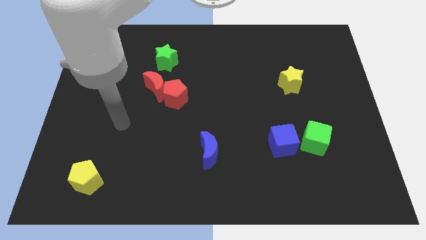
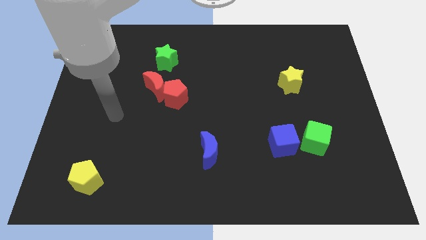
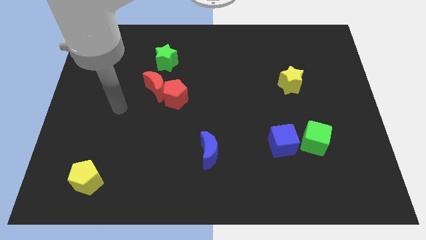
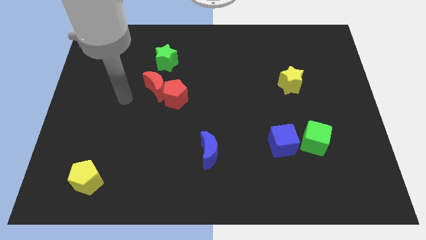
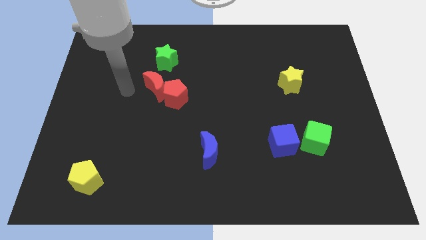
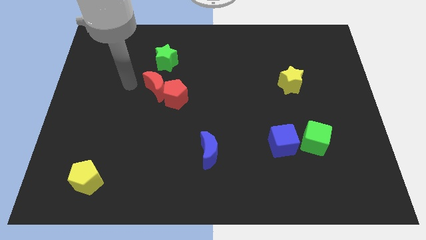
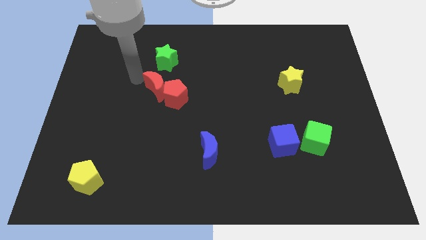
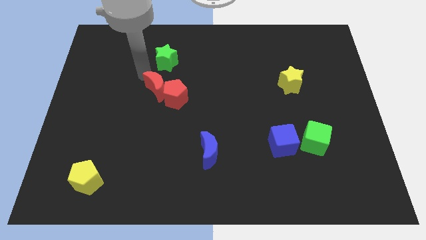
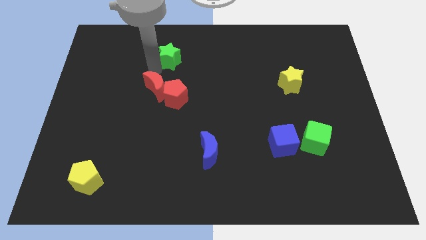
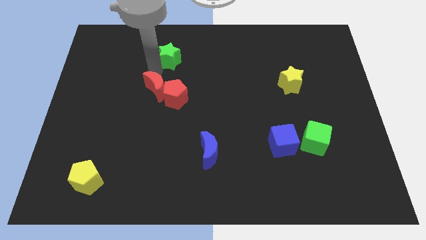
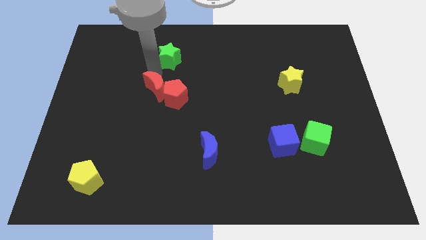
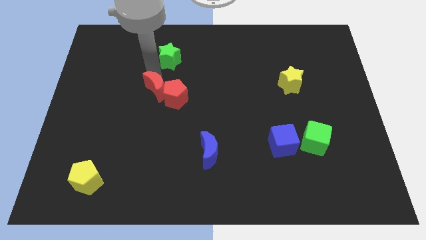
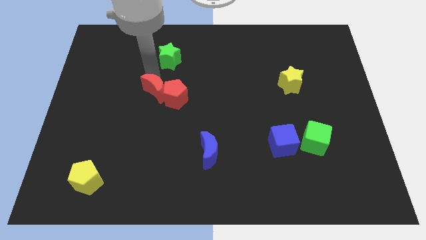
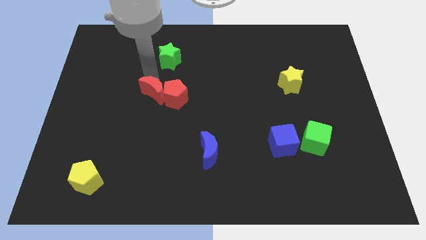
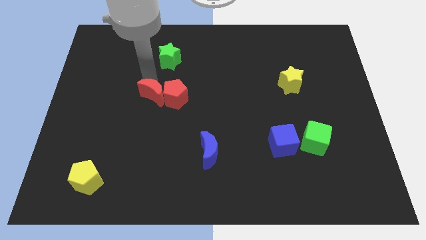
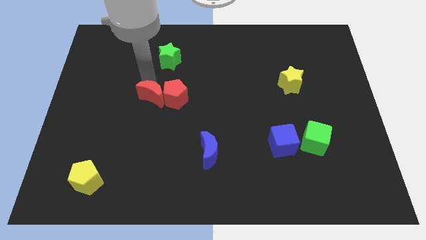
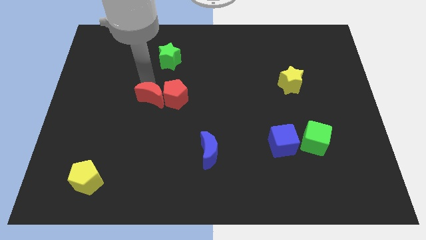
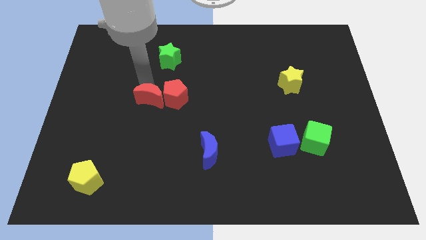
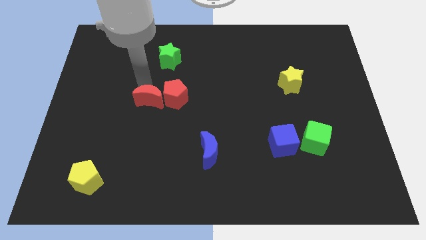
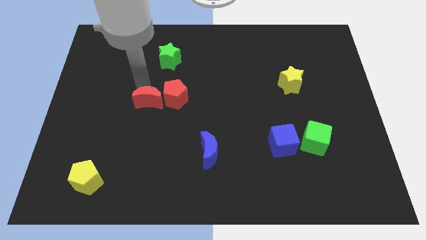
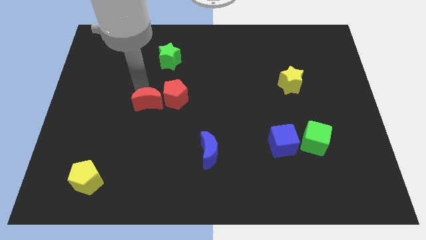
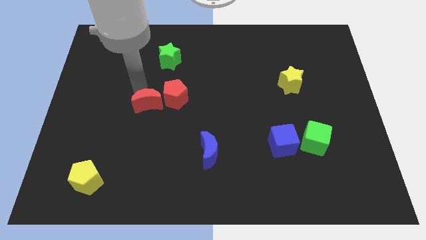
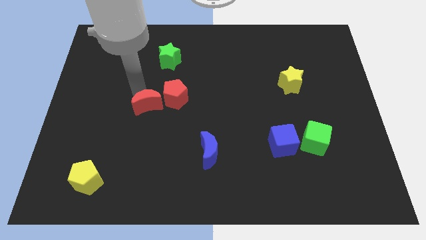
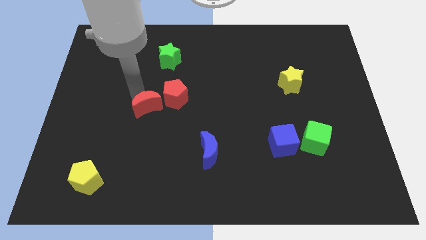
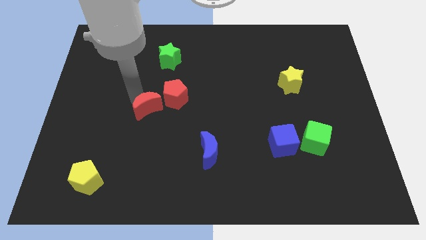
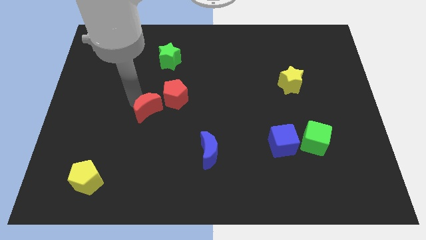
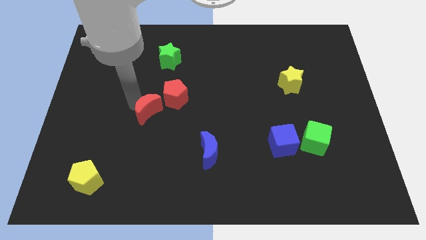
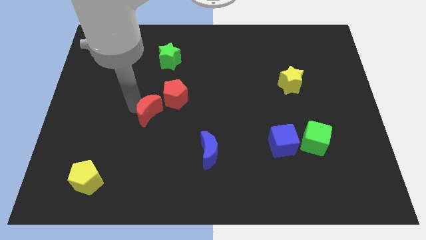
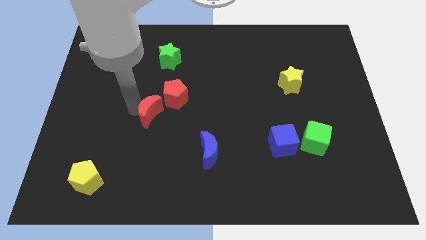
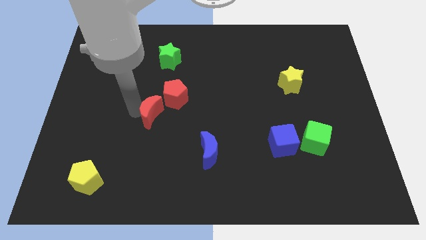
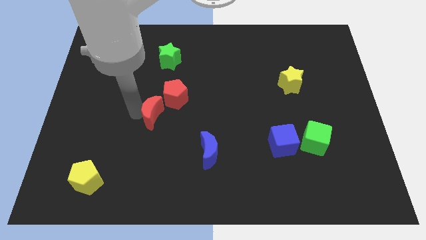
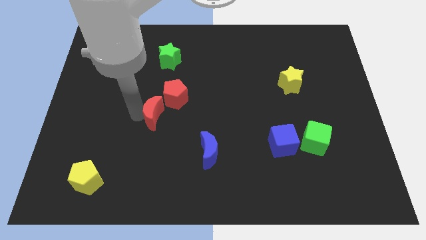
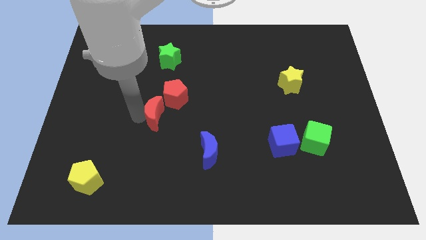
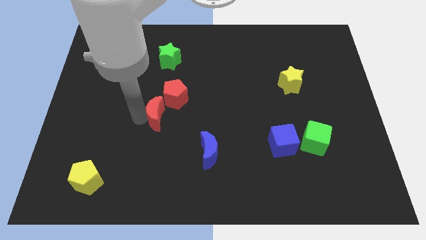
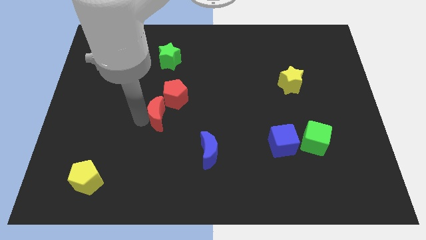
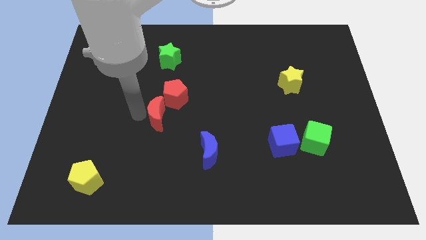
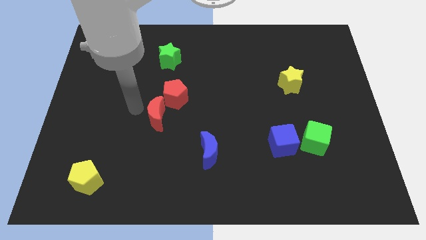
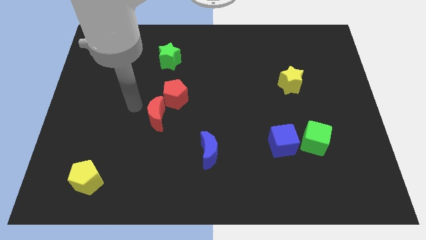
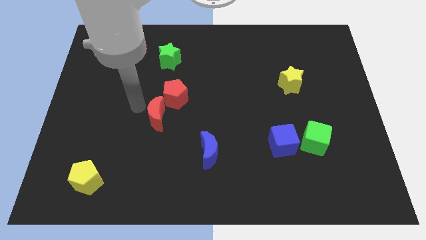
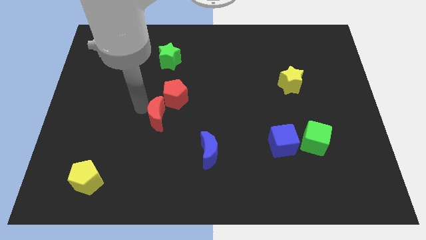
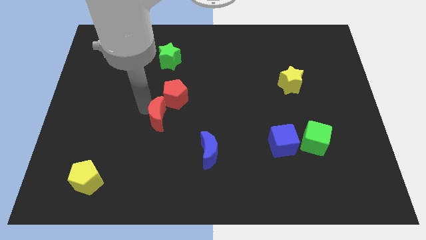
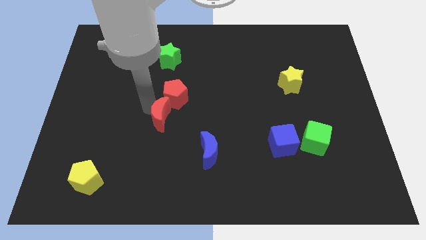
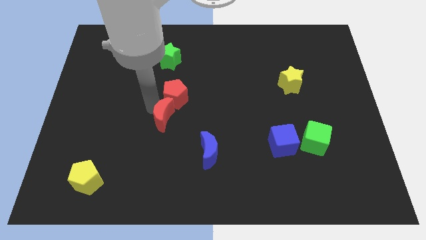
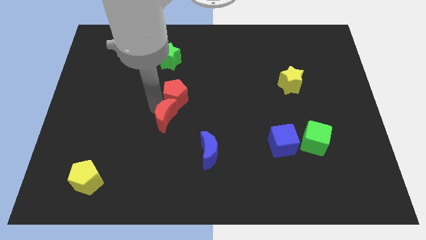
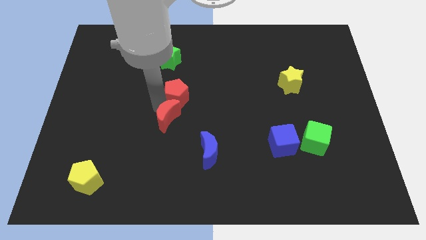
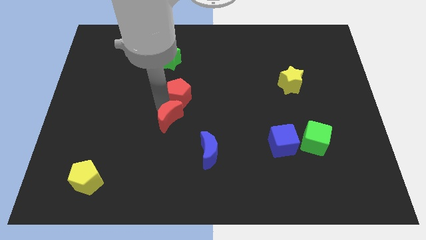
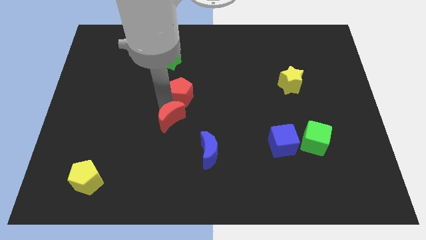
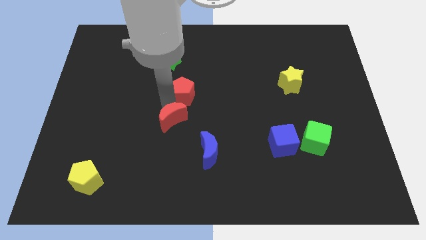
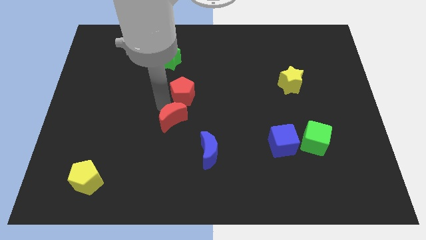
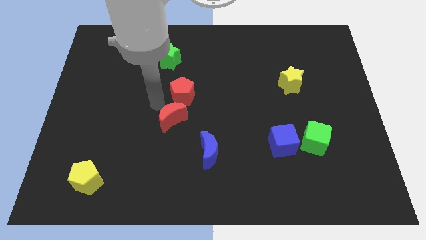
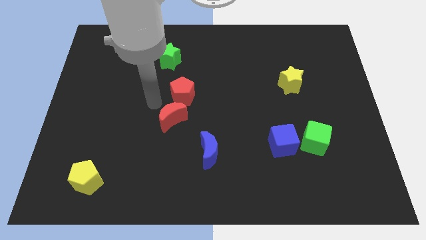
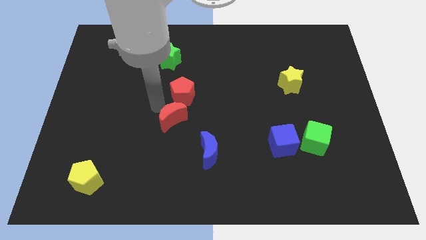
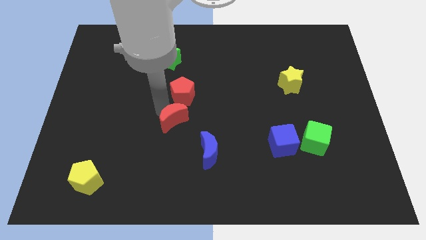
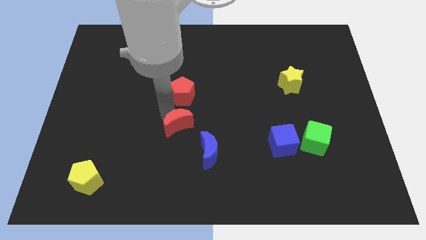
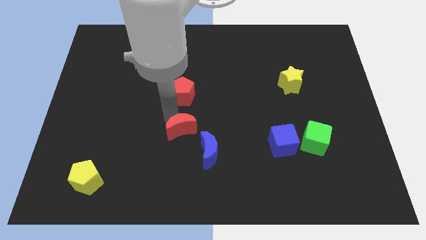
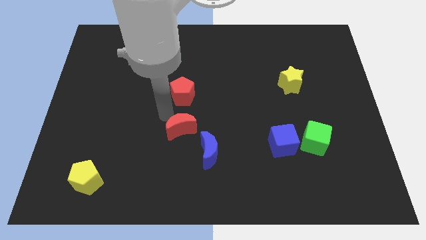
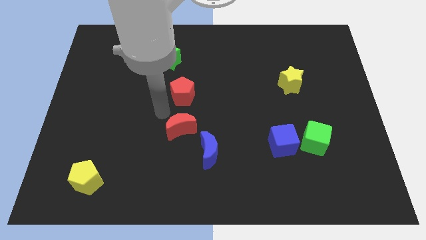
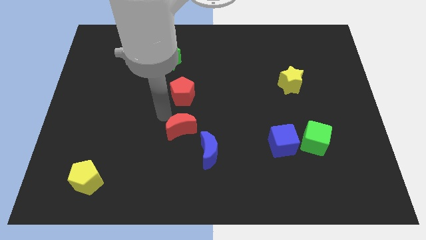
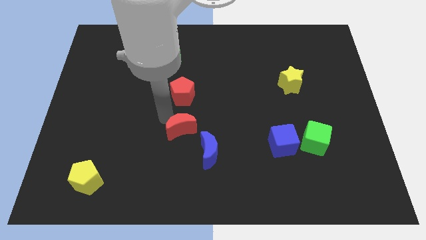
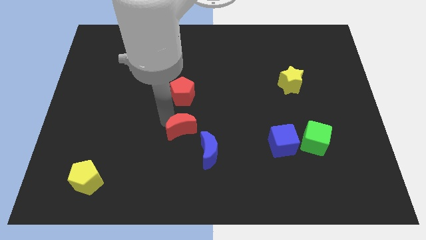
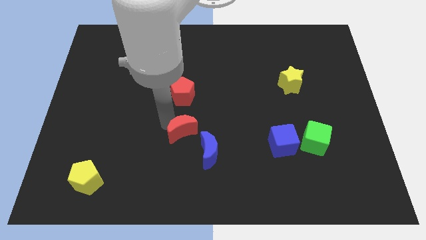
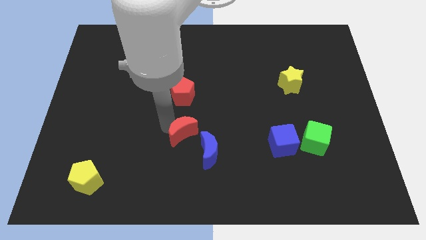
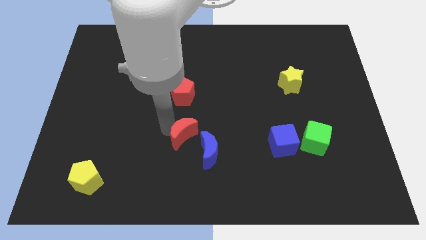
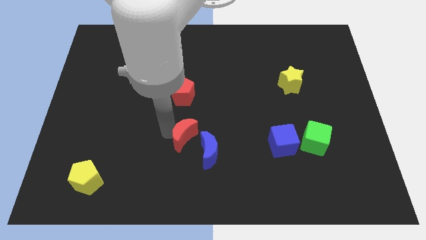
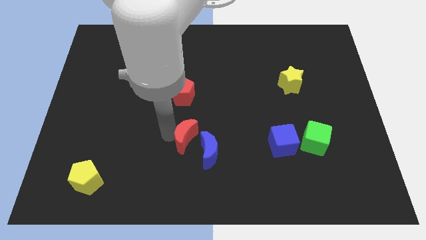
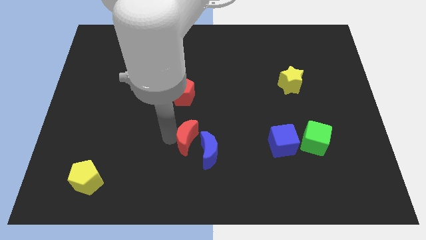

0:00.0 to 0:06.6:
push the red moon towards the blue moon

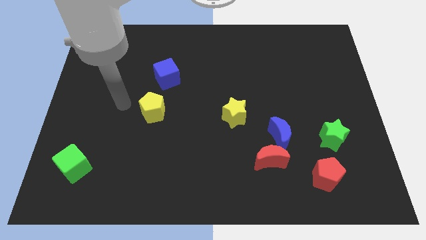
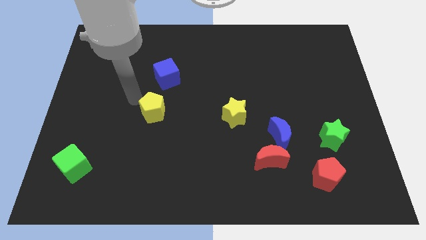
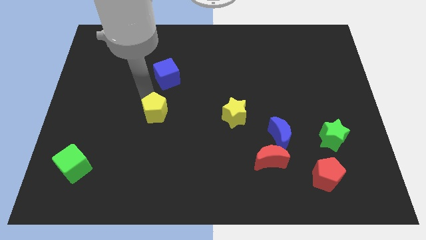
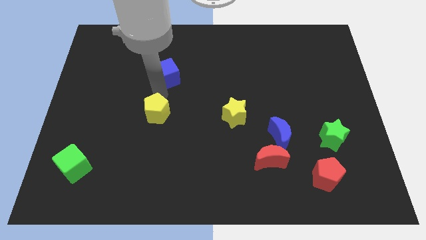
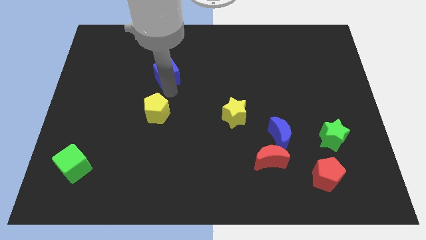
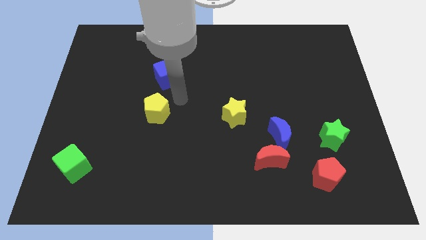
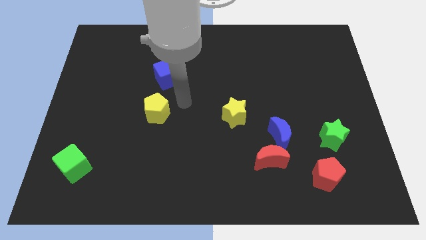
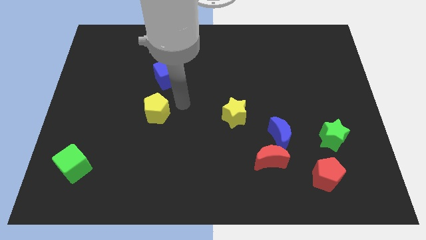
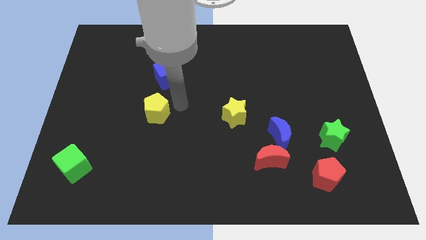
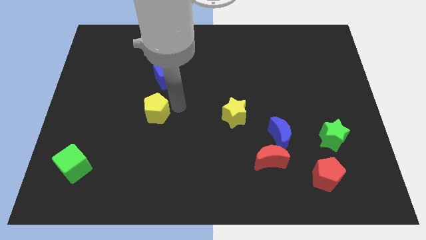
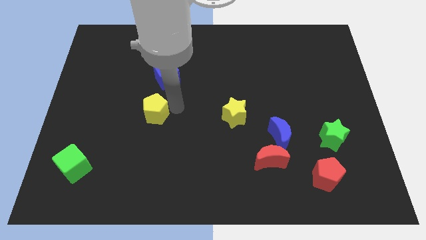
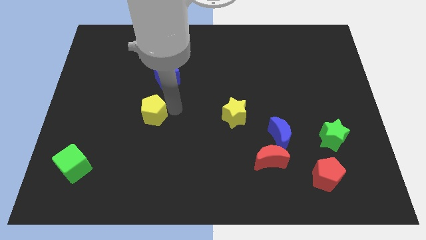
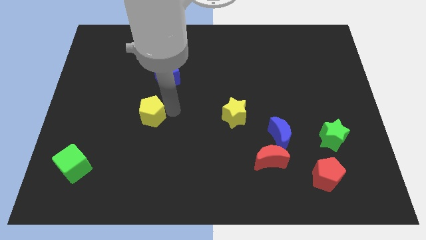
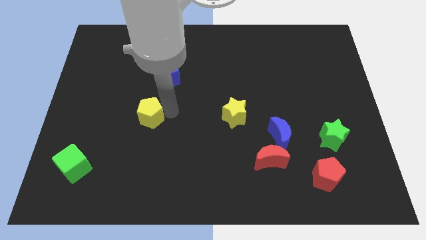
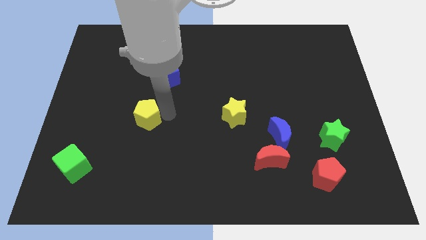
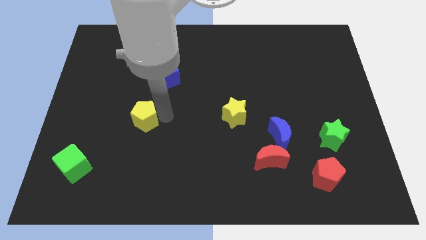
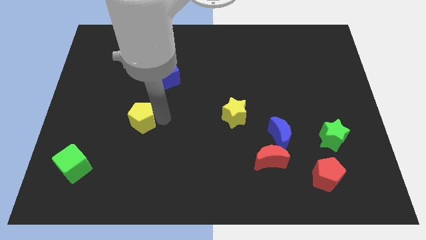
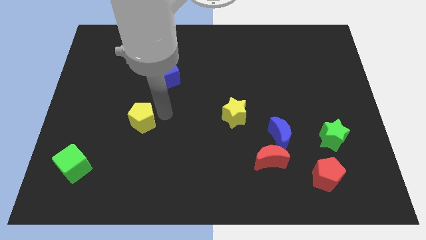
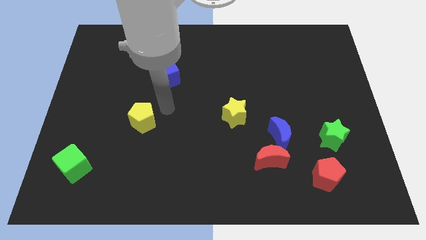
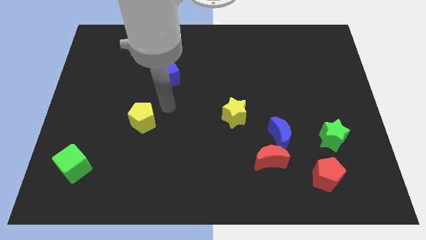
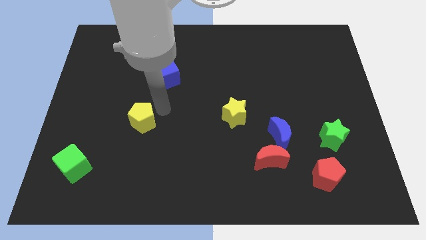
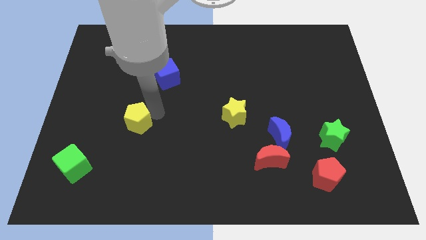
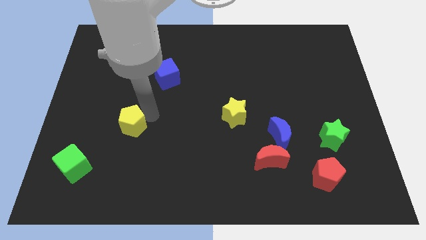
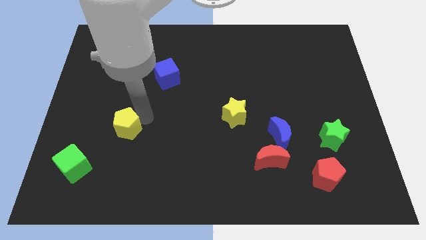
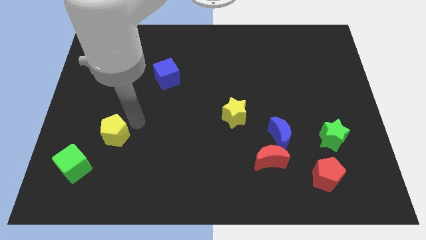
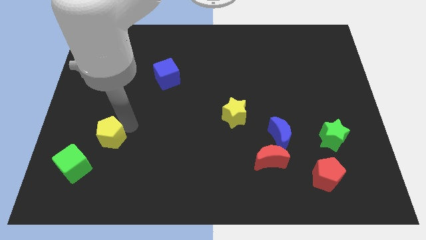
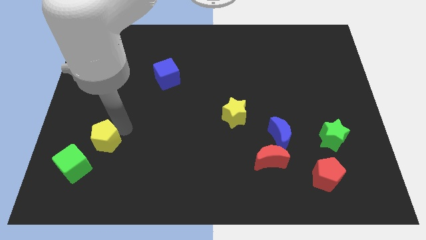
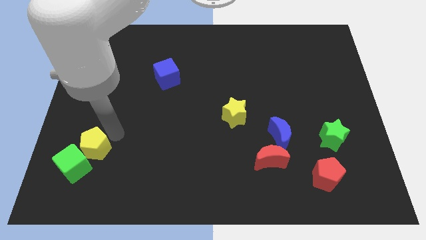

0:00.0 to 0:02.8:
slide the yellow pentagon next to the green cube
